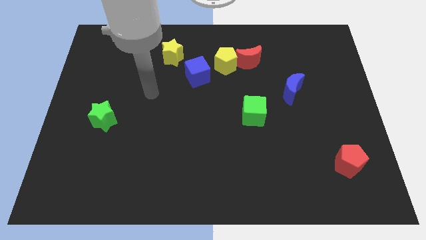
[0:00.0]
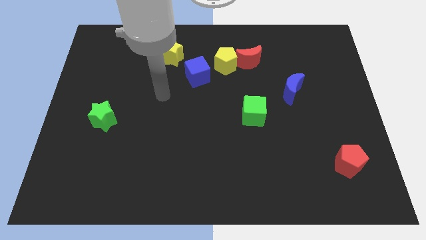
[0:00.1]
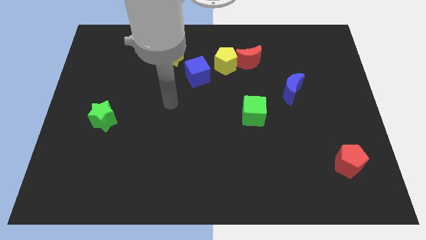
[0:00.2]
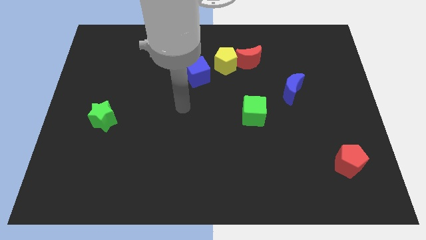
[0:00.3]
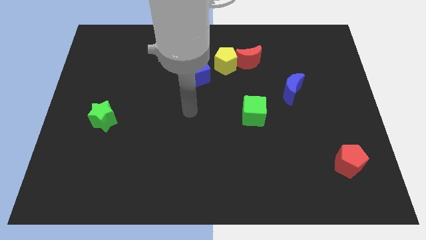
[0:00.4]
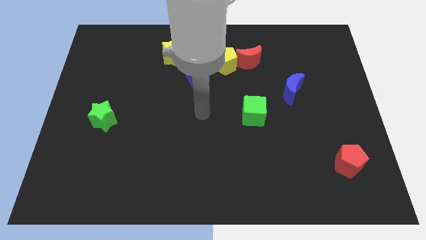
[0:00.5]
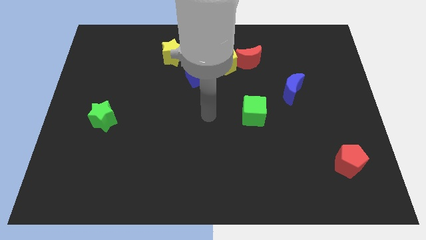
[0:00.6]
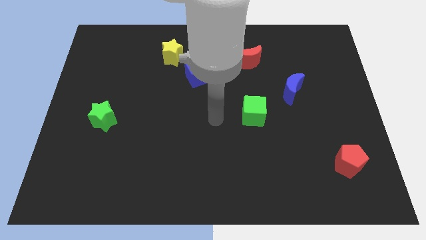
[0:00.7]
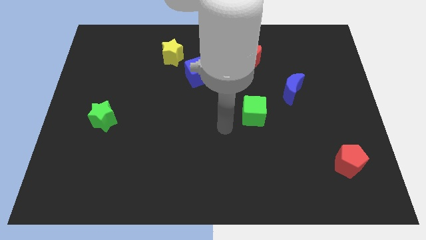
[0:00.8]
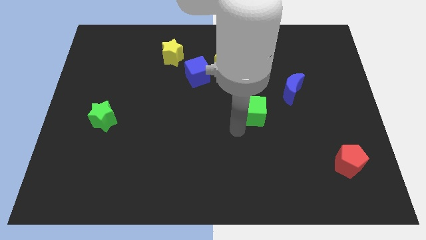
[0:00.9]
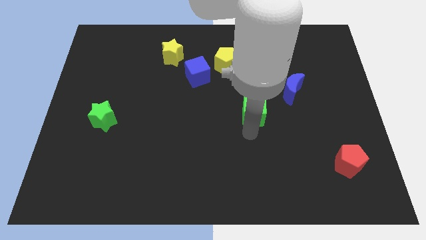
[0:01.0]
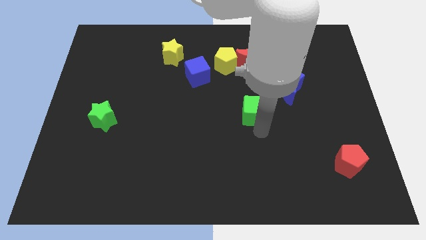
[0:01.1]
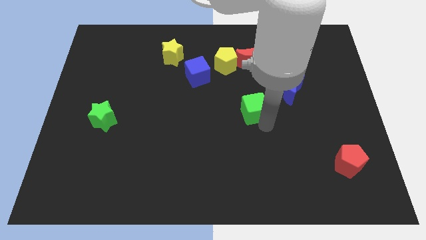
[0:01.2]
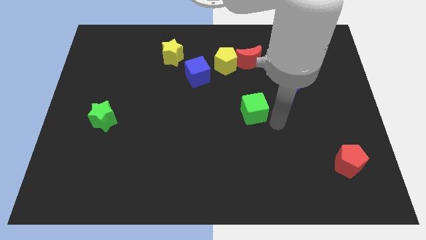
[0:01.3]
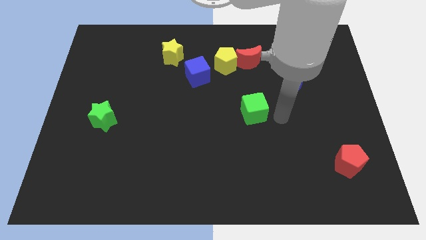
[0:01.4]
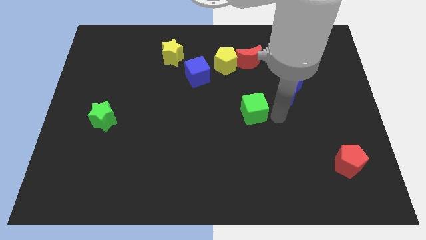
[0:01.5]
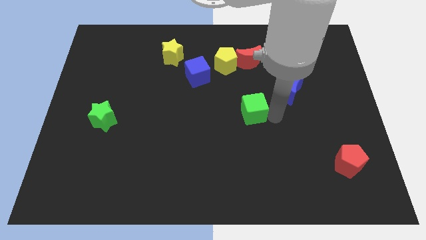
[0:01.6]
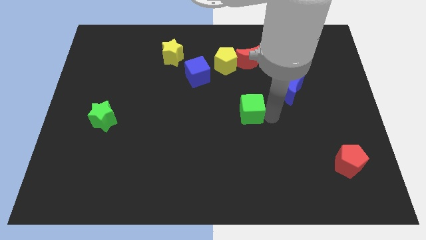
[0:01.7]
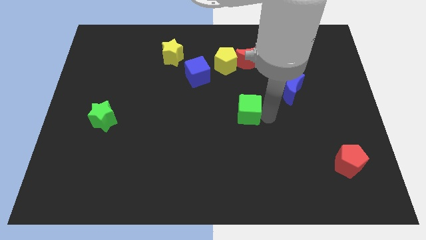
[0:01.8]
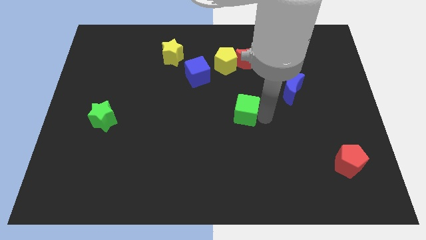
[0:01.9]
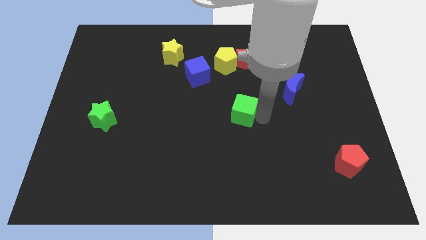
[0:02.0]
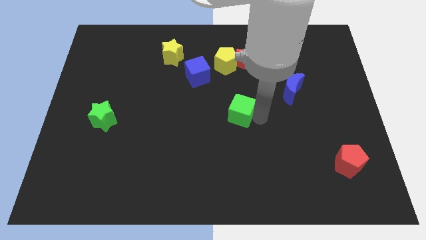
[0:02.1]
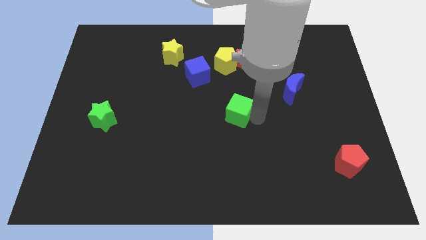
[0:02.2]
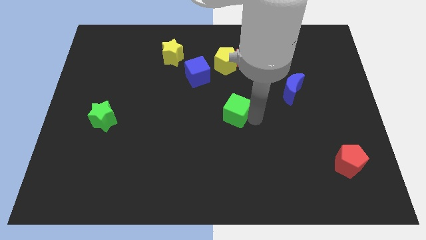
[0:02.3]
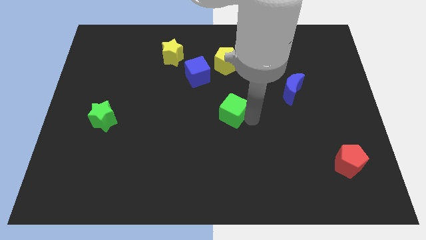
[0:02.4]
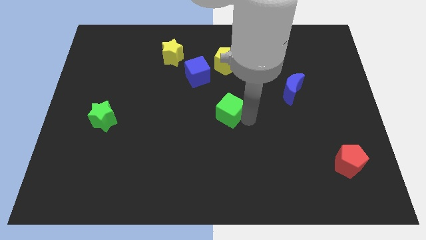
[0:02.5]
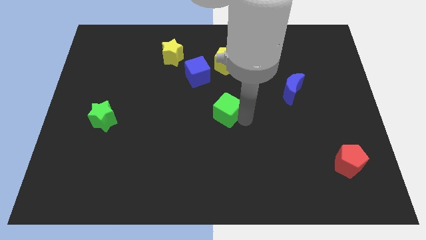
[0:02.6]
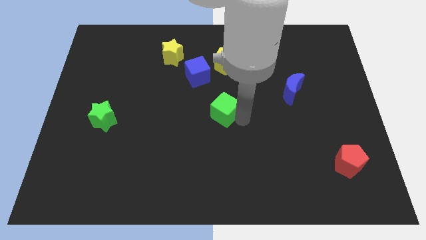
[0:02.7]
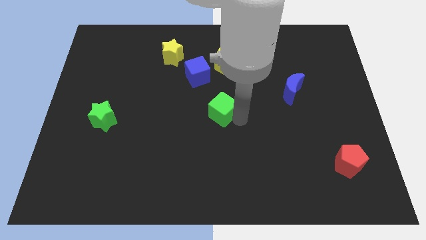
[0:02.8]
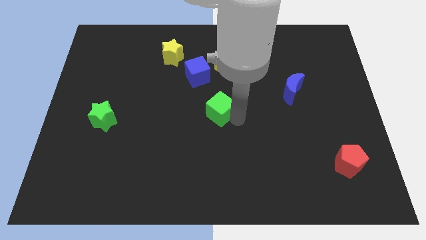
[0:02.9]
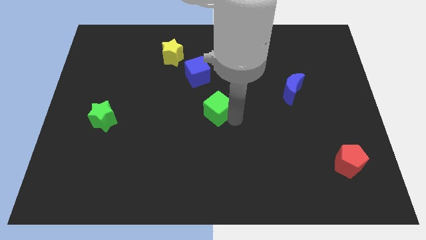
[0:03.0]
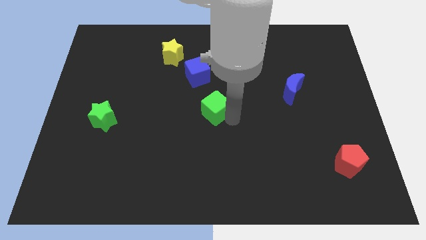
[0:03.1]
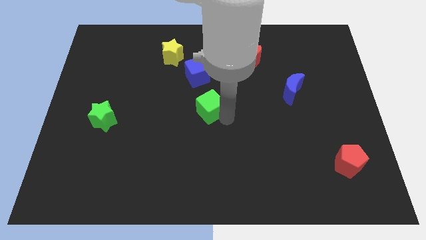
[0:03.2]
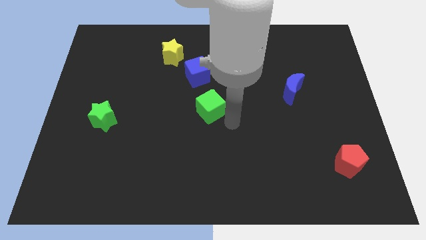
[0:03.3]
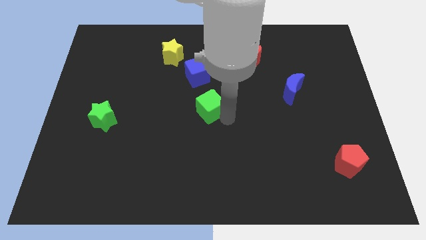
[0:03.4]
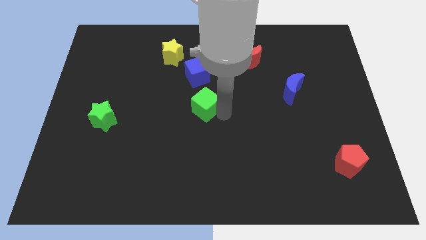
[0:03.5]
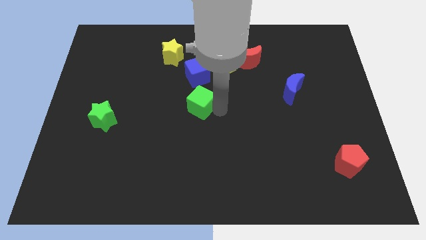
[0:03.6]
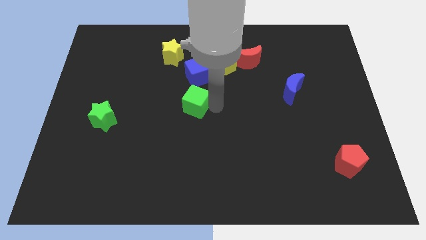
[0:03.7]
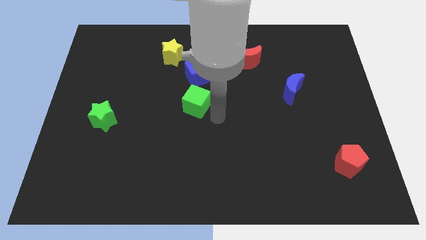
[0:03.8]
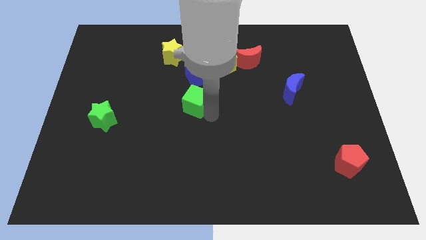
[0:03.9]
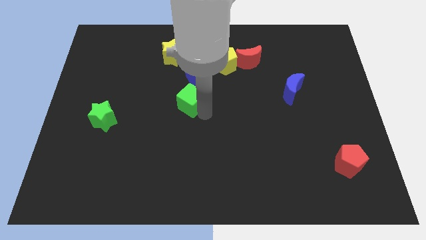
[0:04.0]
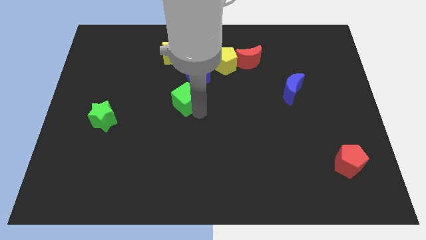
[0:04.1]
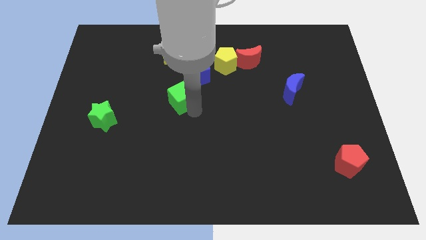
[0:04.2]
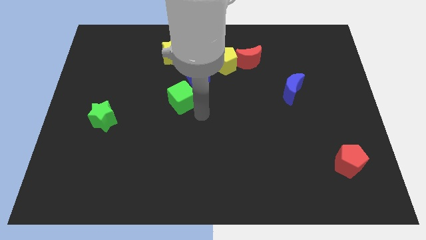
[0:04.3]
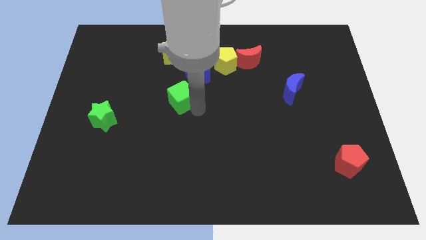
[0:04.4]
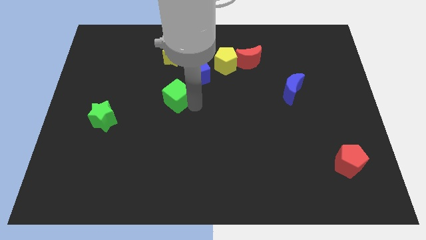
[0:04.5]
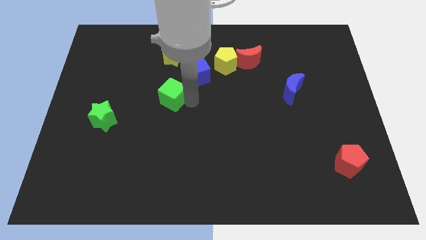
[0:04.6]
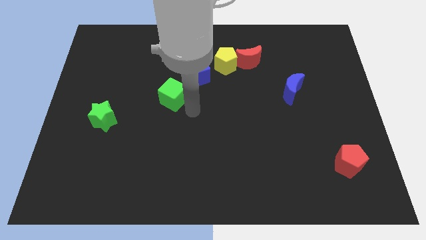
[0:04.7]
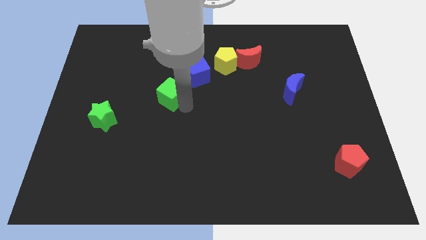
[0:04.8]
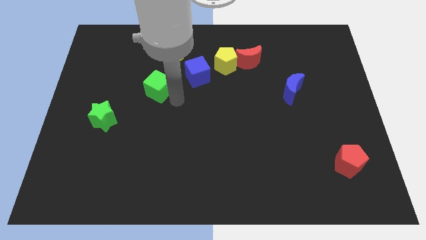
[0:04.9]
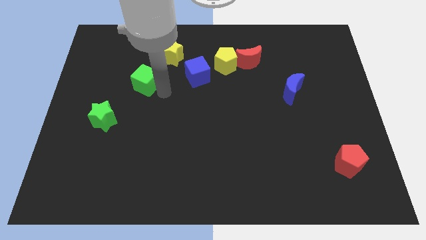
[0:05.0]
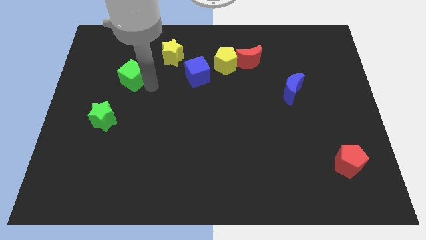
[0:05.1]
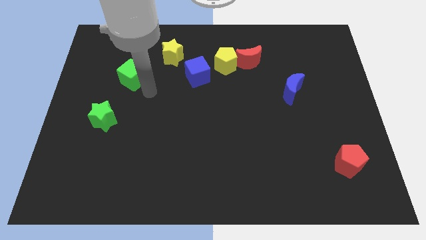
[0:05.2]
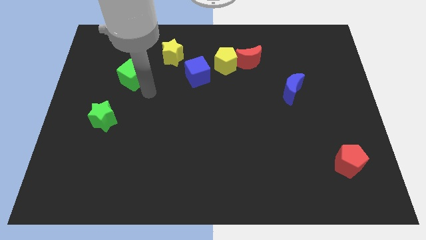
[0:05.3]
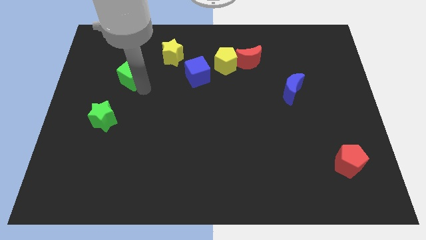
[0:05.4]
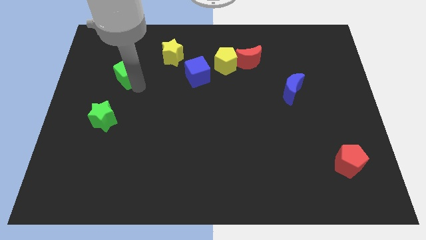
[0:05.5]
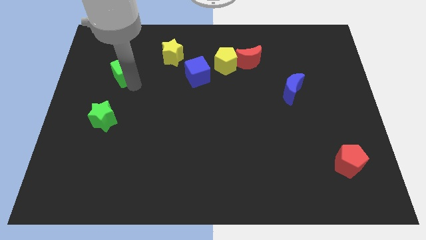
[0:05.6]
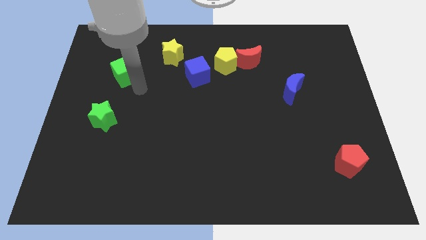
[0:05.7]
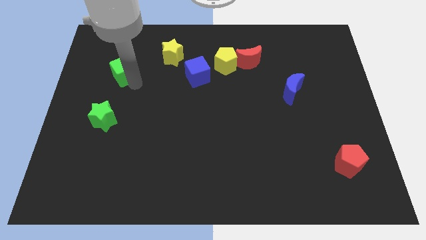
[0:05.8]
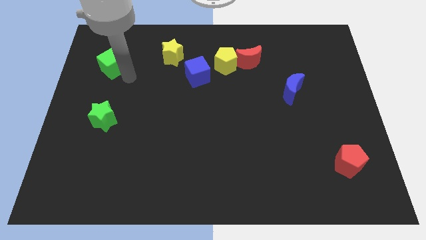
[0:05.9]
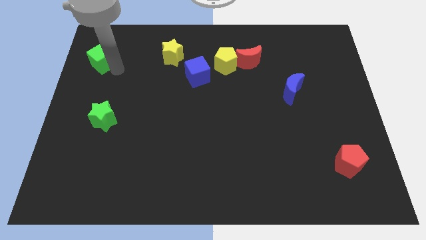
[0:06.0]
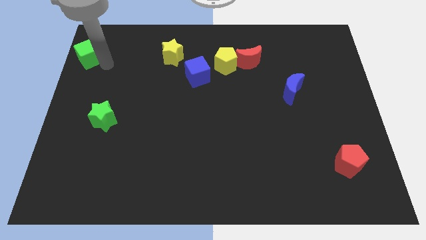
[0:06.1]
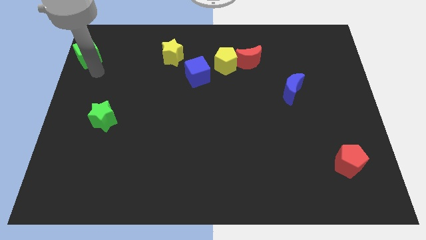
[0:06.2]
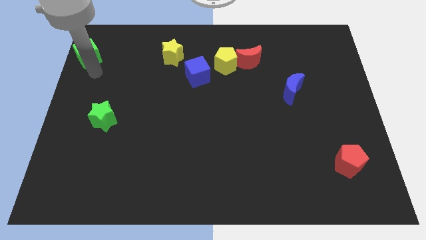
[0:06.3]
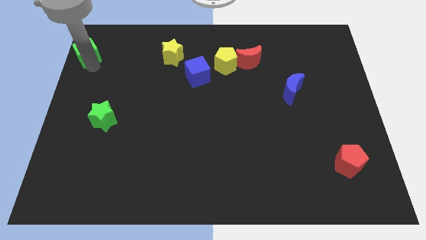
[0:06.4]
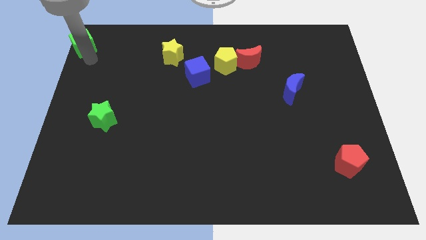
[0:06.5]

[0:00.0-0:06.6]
push the green cube to the top left corner
